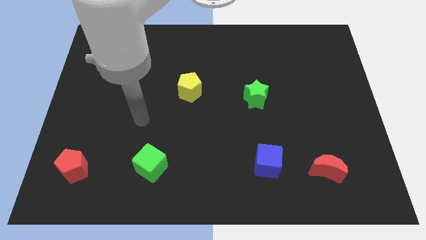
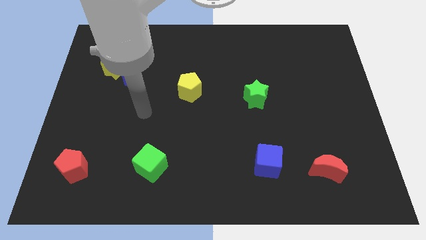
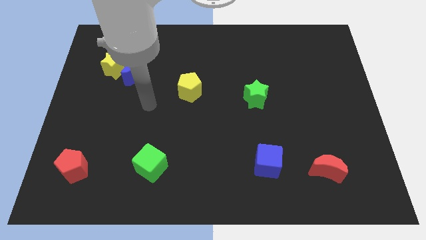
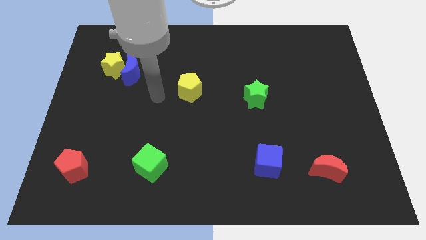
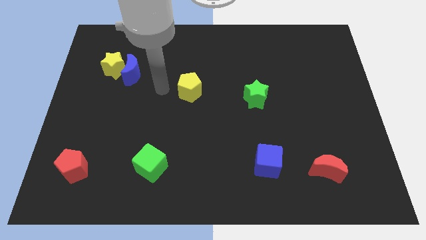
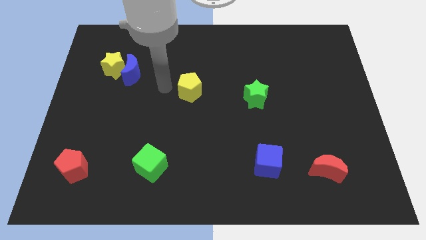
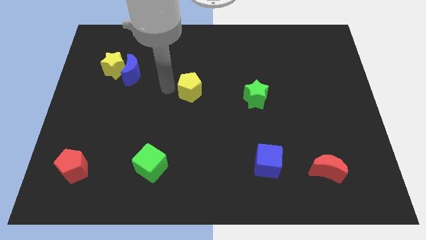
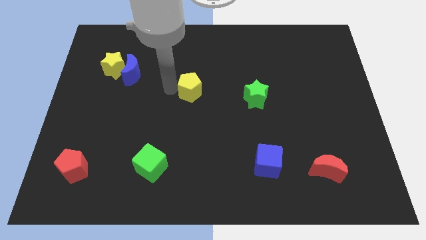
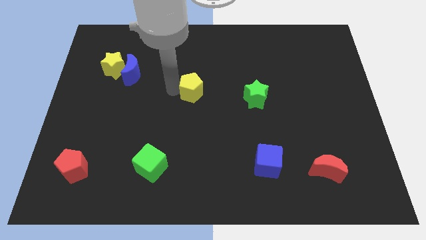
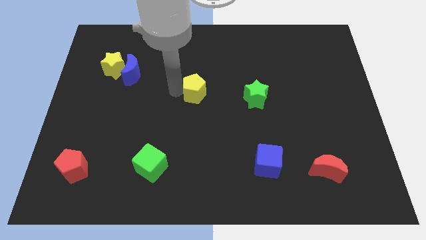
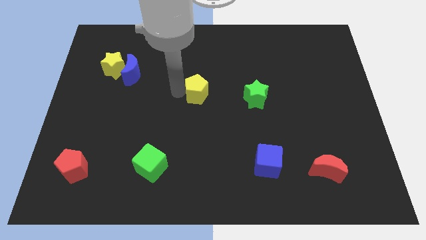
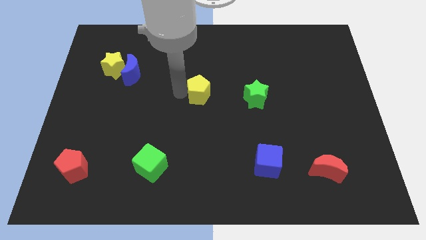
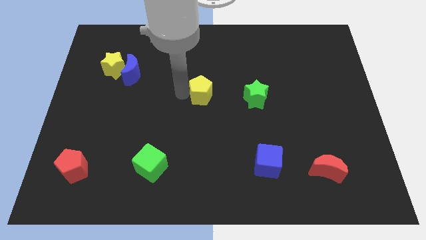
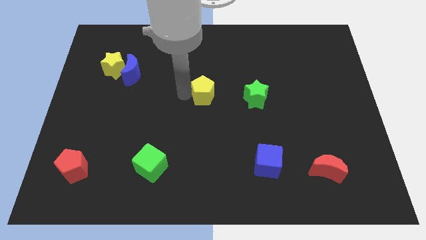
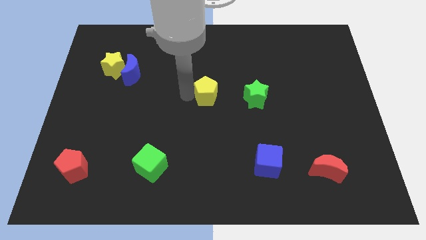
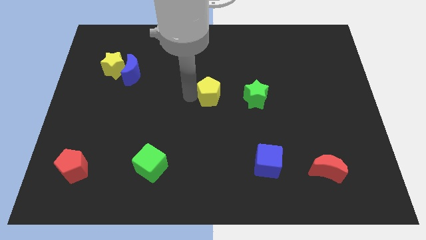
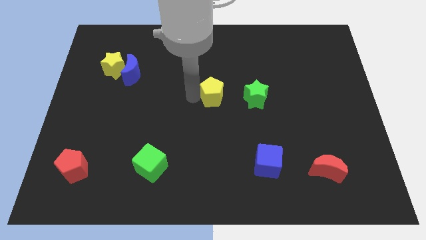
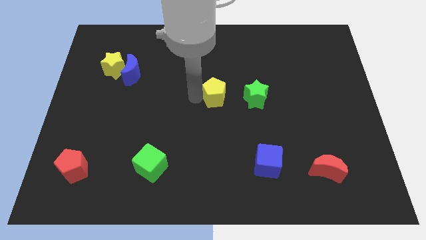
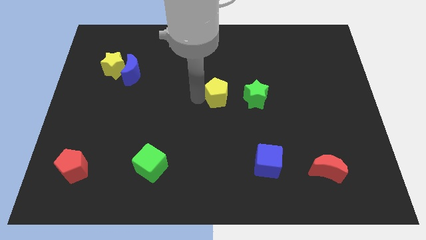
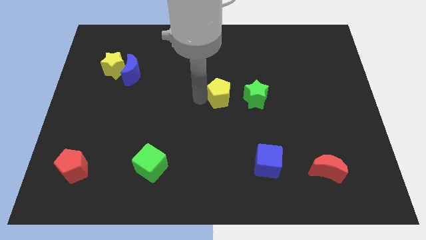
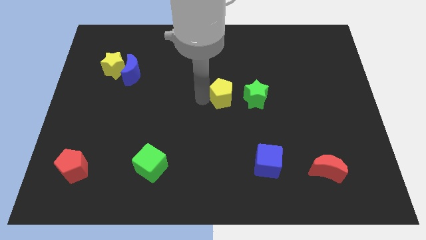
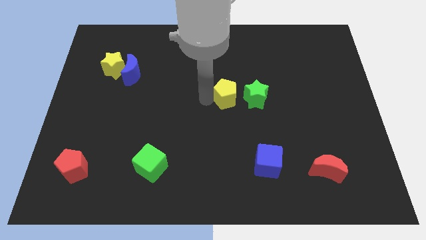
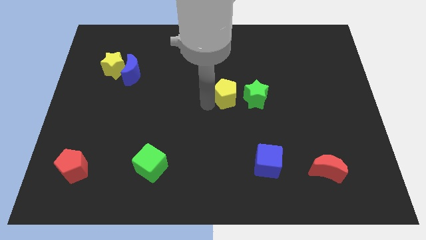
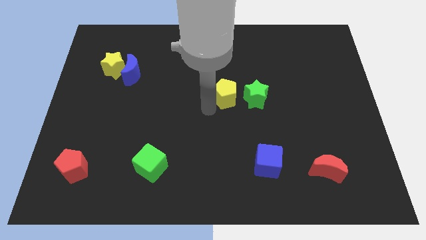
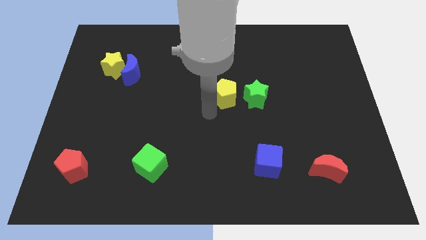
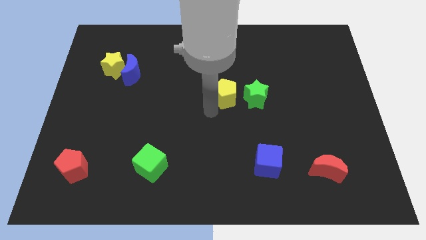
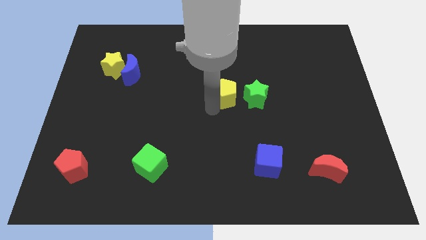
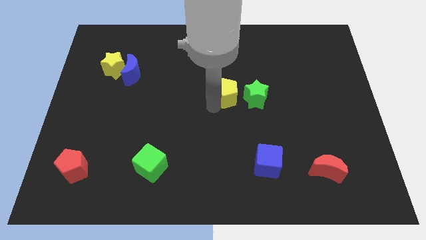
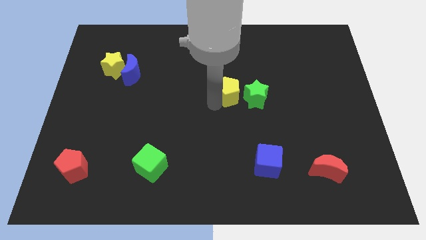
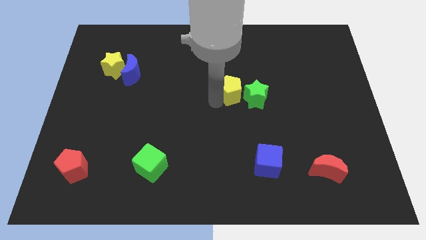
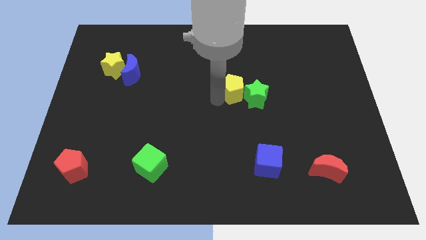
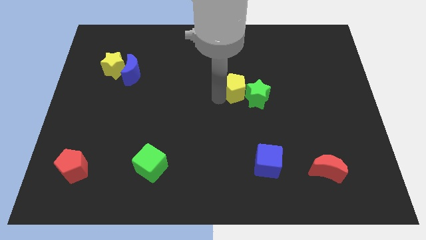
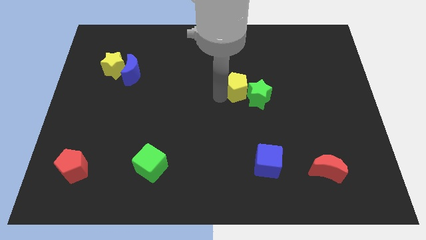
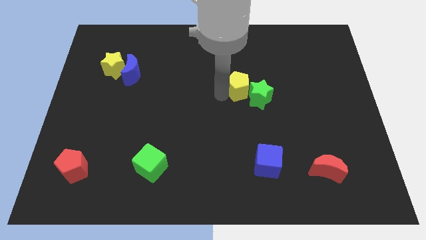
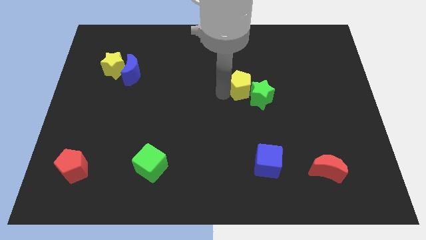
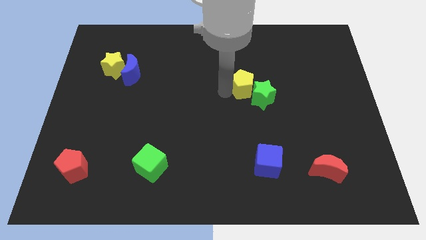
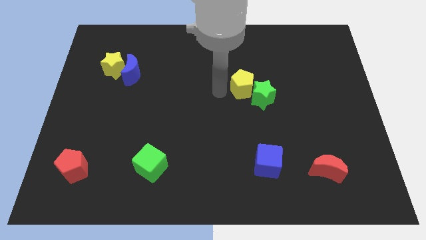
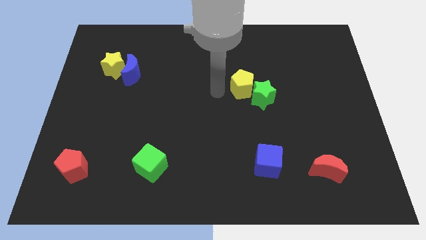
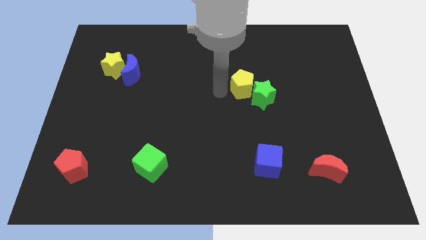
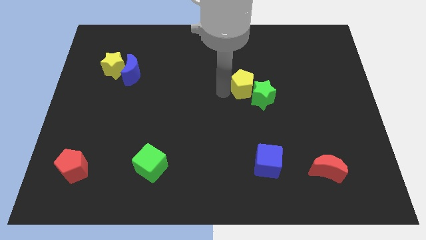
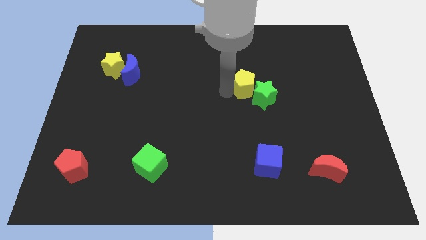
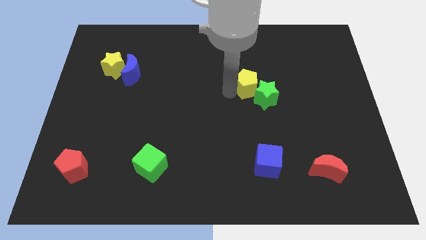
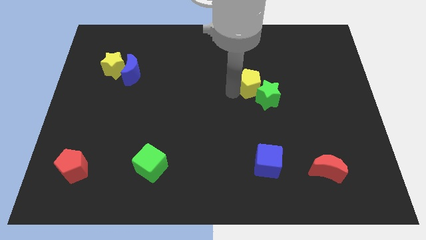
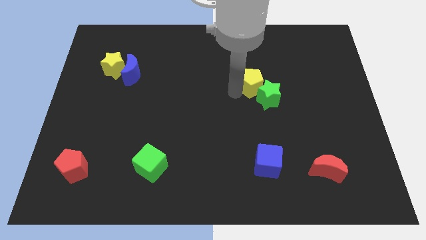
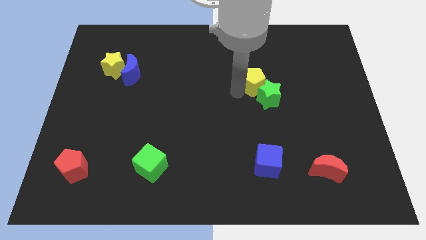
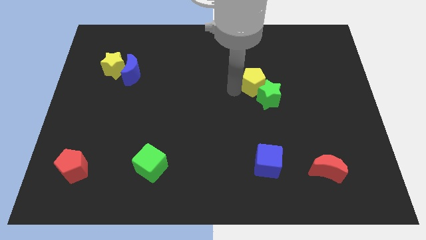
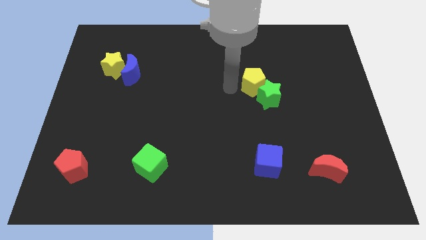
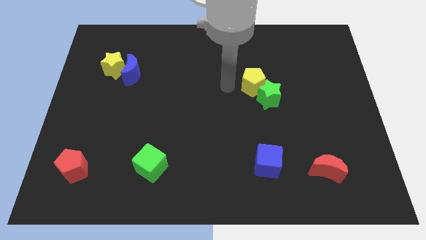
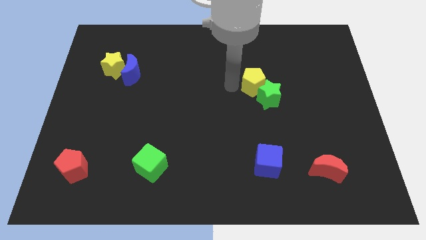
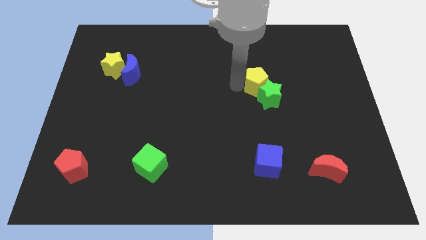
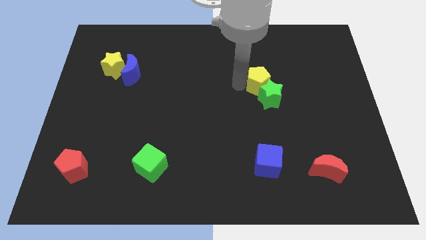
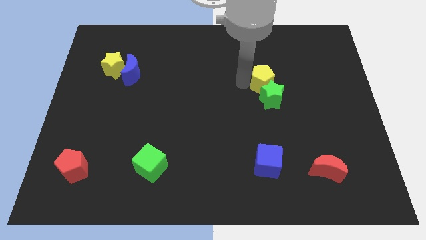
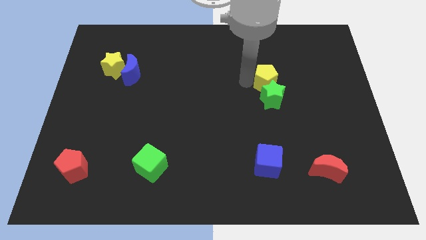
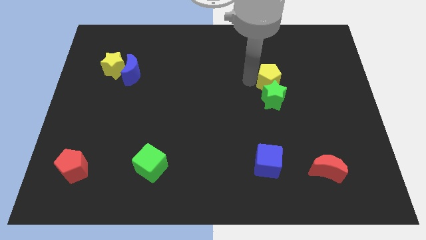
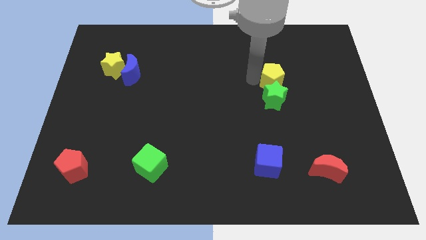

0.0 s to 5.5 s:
slide the yellow pentagon to the right

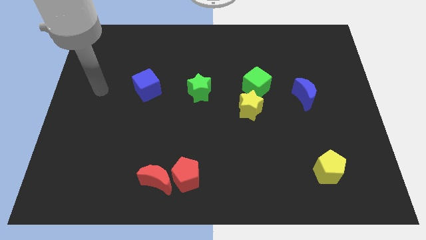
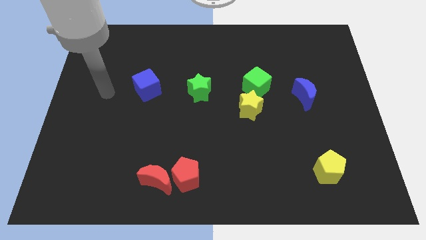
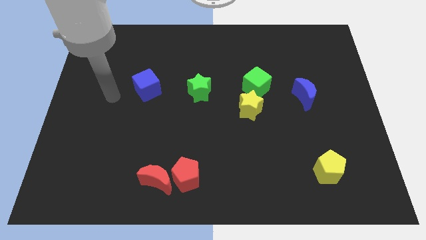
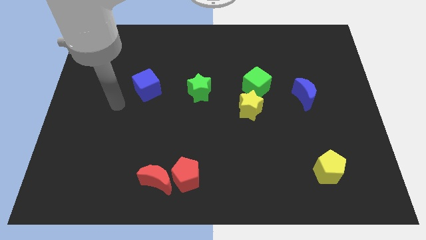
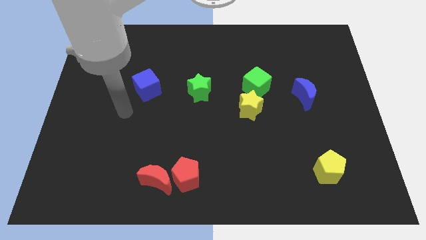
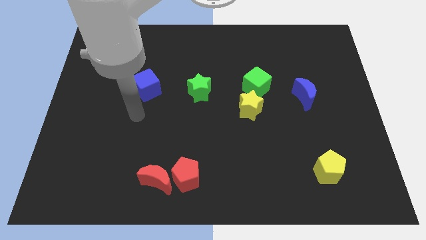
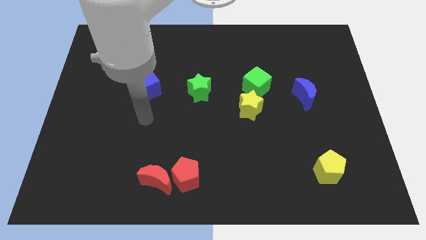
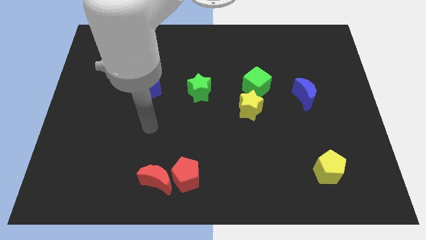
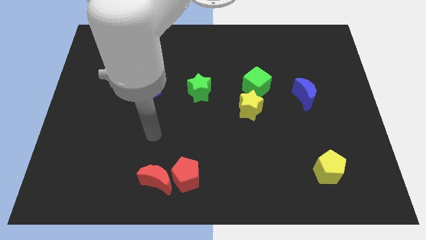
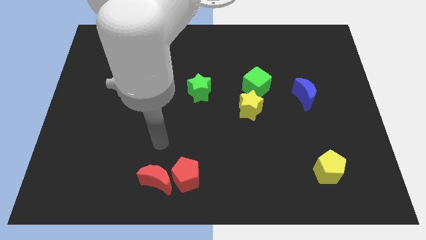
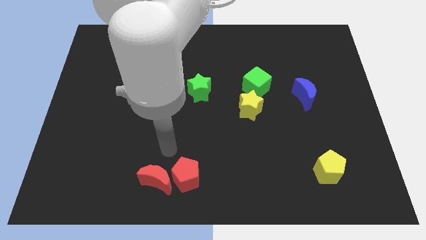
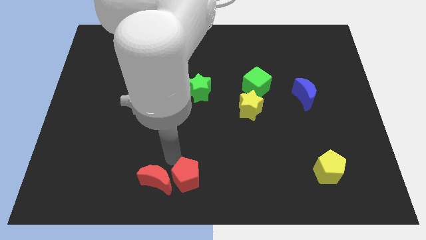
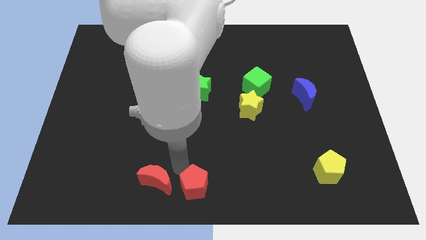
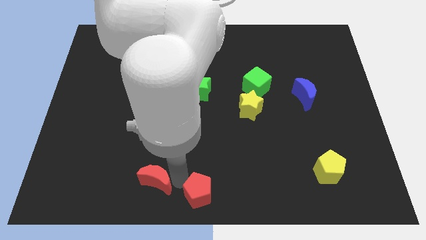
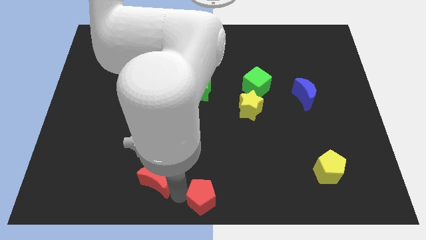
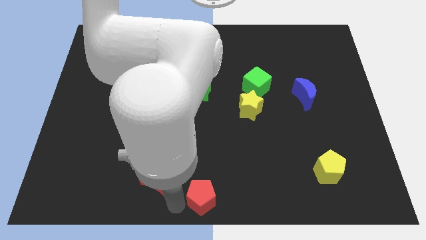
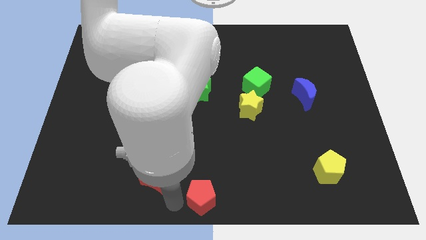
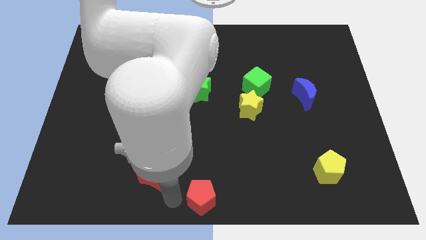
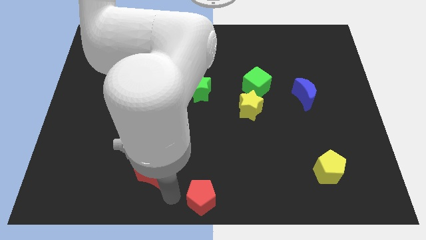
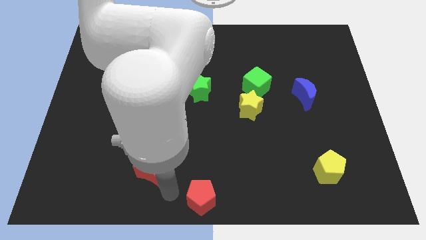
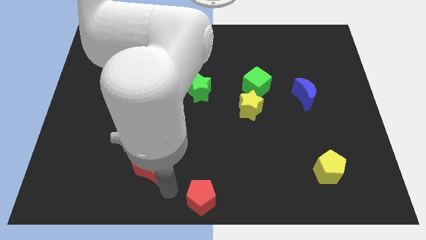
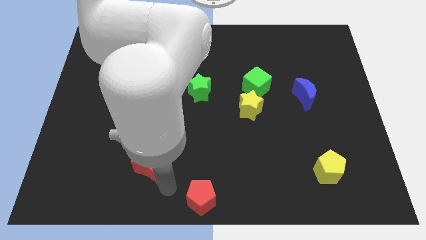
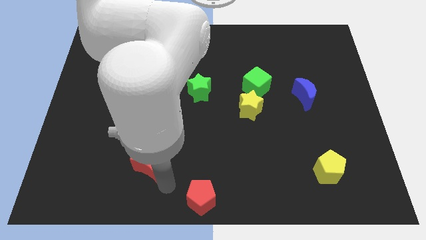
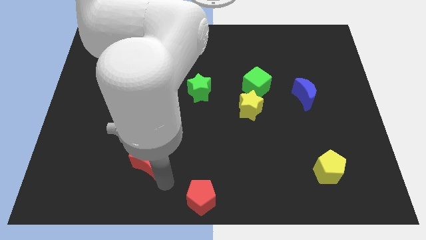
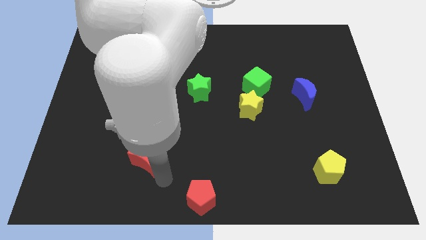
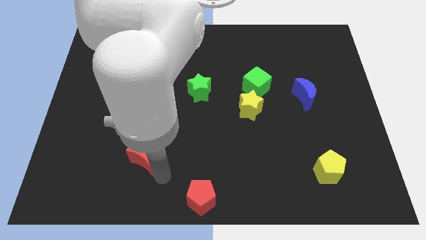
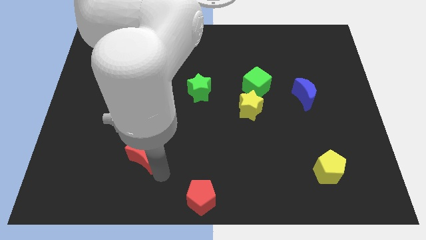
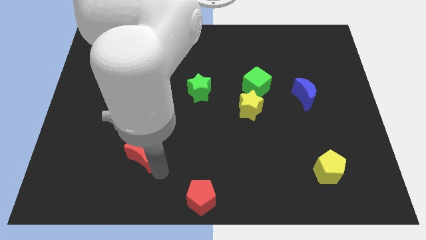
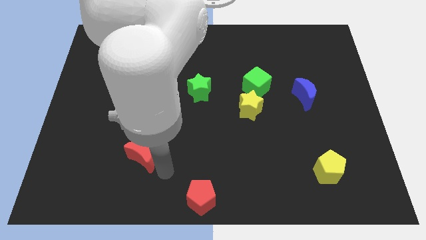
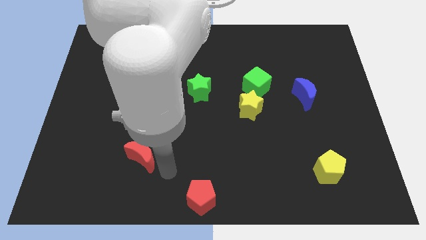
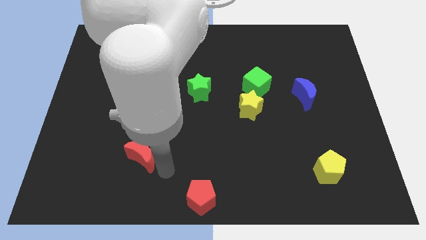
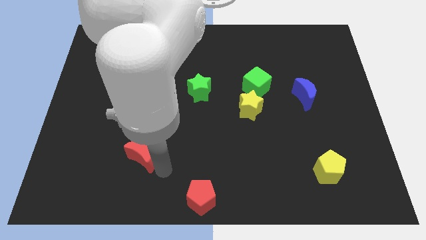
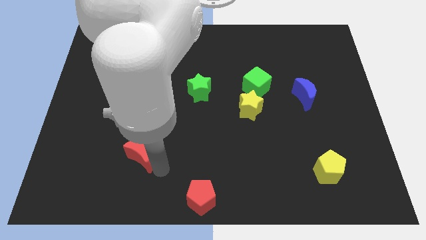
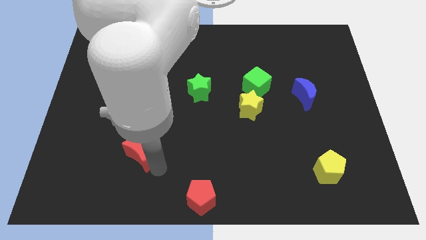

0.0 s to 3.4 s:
slide the red moon diagonally up and left a little bit
